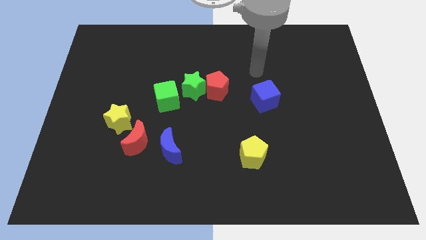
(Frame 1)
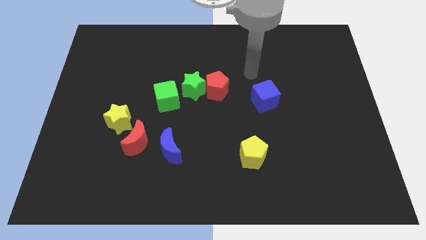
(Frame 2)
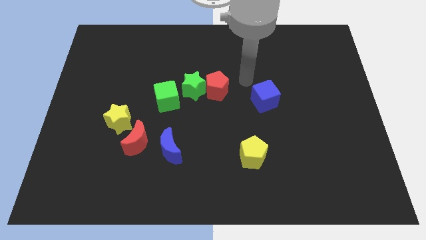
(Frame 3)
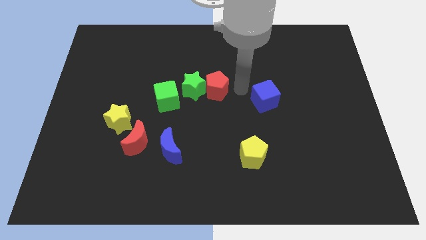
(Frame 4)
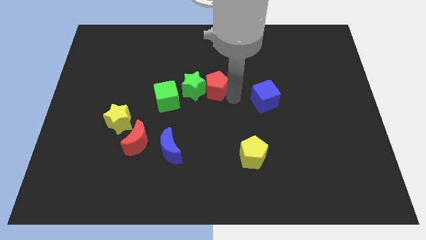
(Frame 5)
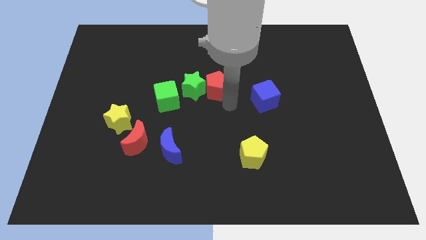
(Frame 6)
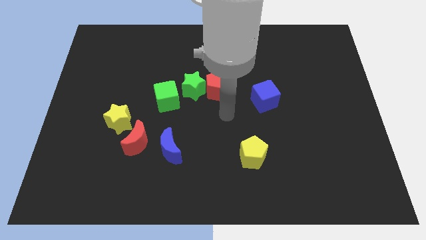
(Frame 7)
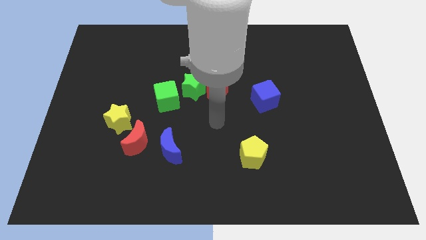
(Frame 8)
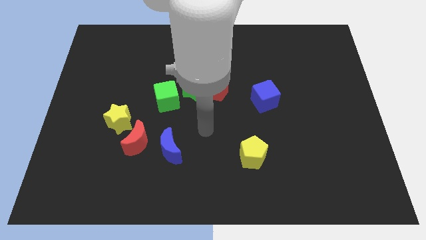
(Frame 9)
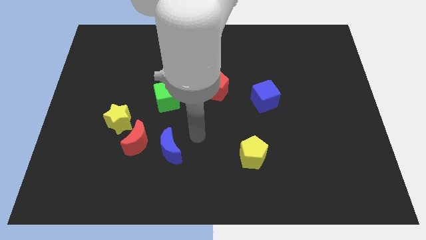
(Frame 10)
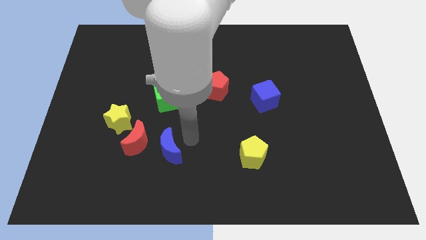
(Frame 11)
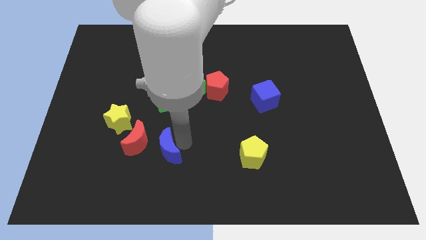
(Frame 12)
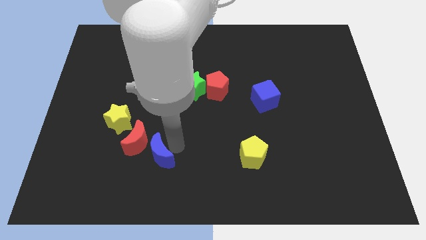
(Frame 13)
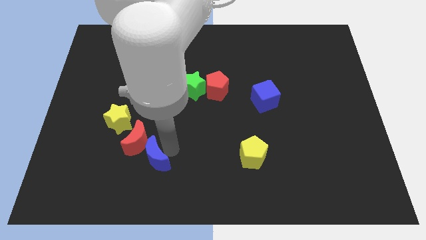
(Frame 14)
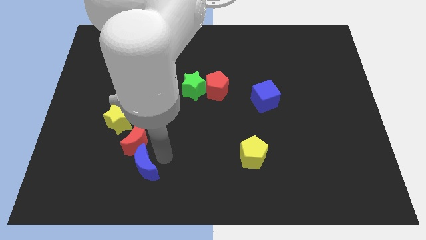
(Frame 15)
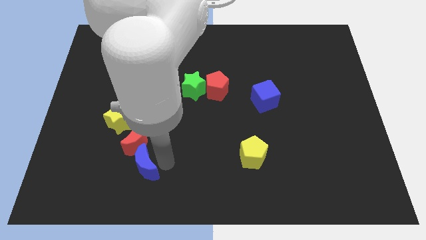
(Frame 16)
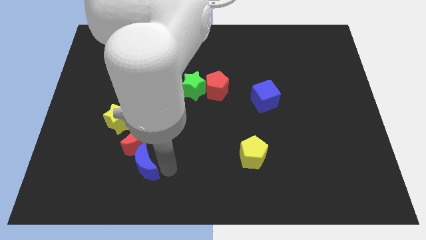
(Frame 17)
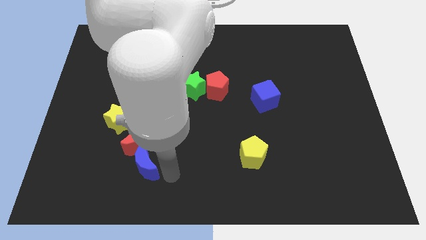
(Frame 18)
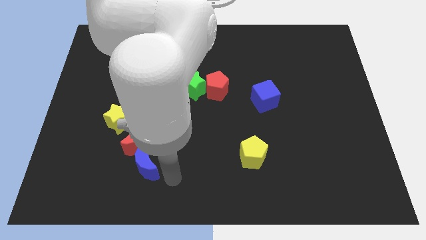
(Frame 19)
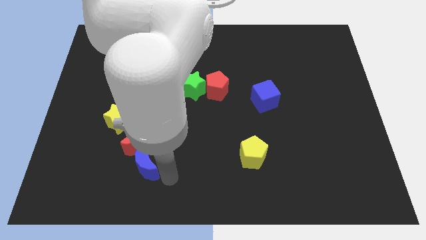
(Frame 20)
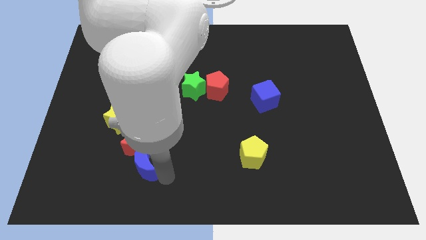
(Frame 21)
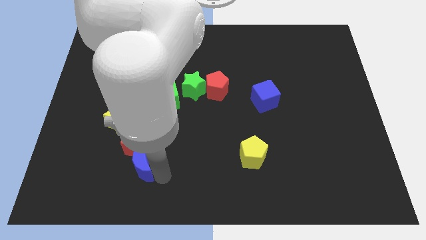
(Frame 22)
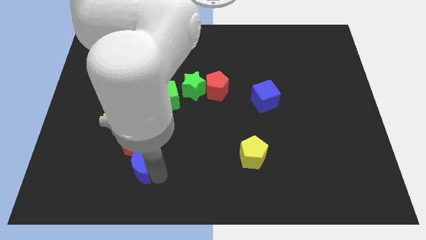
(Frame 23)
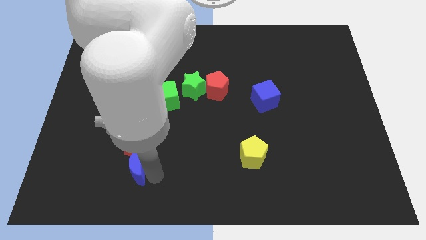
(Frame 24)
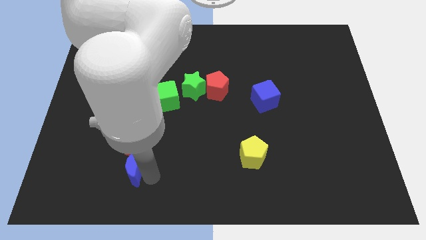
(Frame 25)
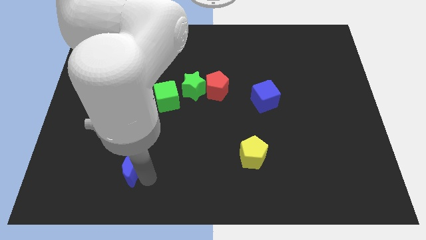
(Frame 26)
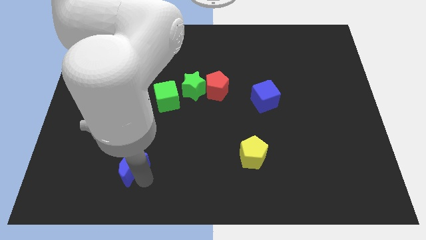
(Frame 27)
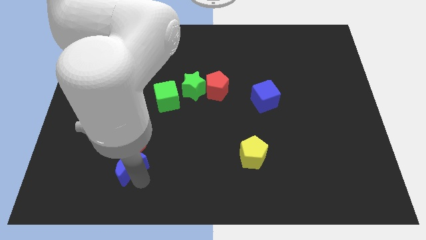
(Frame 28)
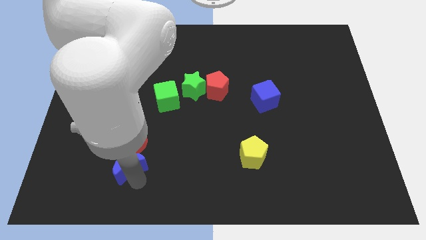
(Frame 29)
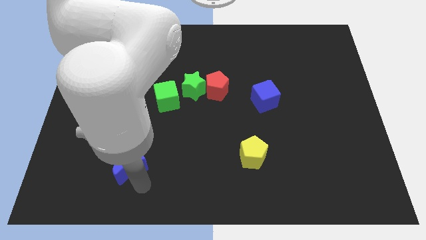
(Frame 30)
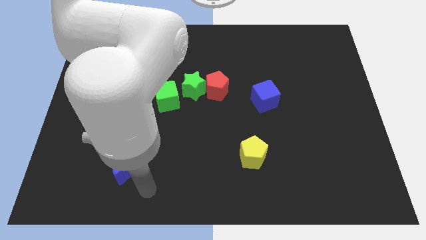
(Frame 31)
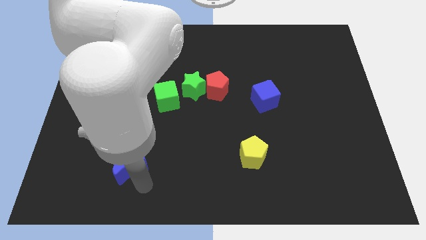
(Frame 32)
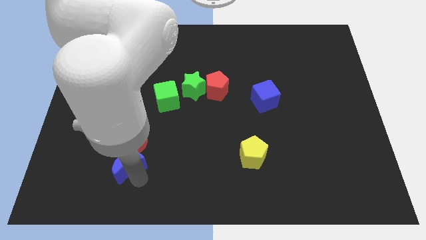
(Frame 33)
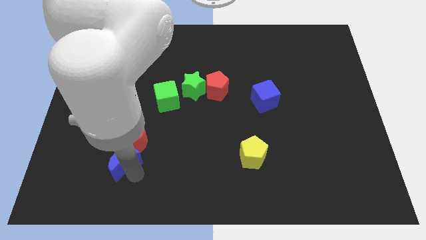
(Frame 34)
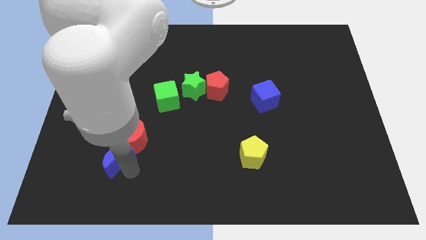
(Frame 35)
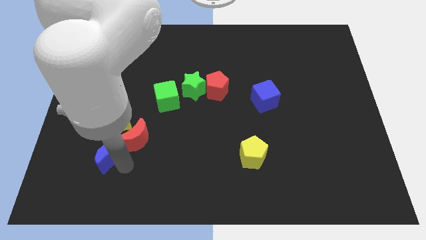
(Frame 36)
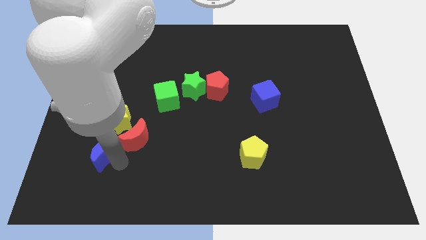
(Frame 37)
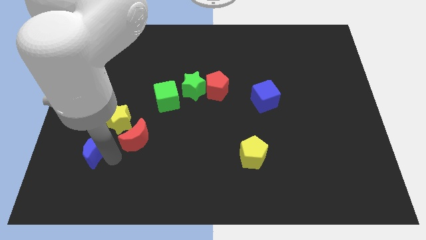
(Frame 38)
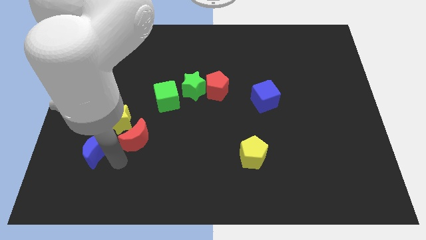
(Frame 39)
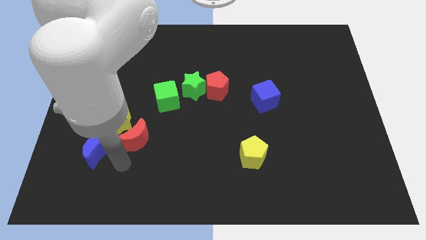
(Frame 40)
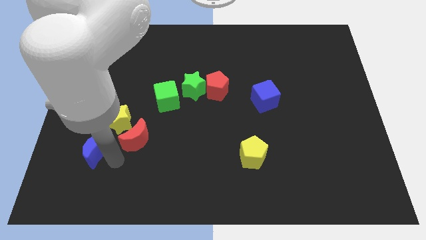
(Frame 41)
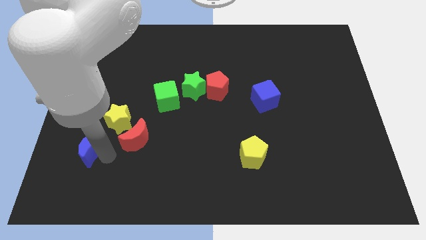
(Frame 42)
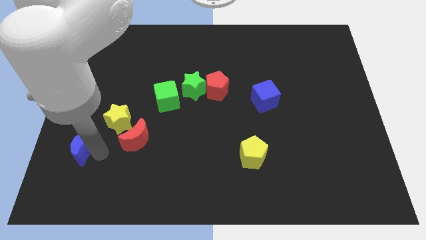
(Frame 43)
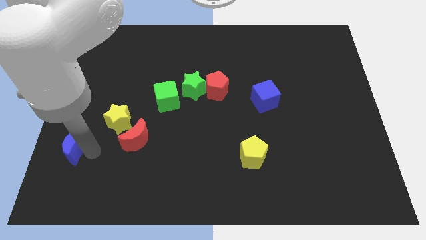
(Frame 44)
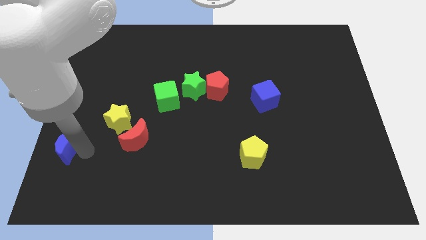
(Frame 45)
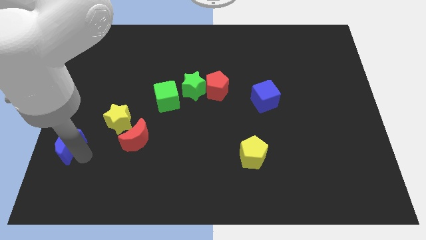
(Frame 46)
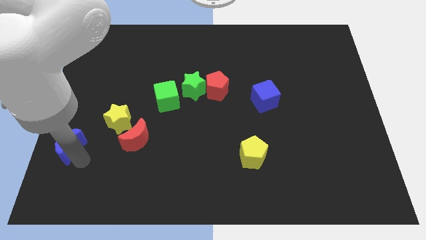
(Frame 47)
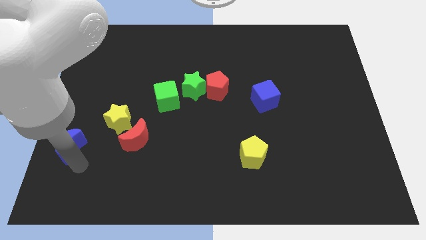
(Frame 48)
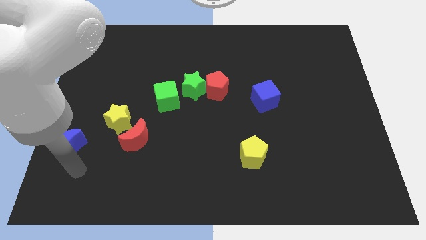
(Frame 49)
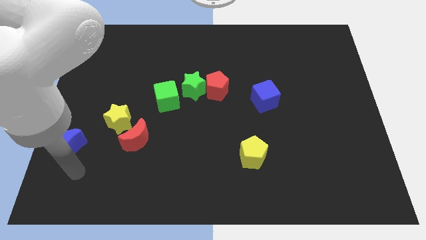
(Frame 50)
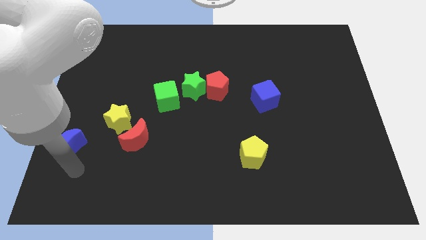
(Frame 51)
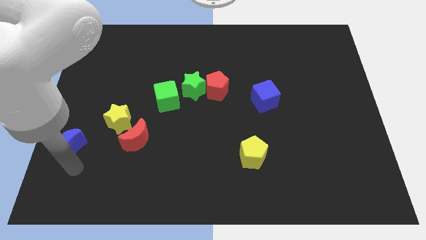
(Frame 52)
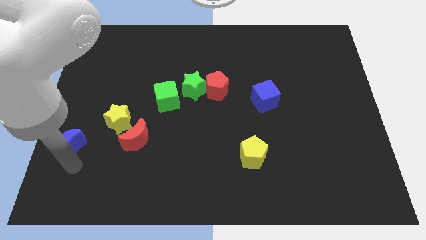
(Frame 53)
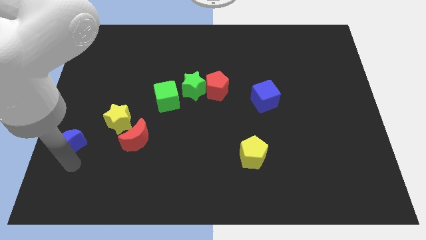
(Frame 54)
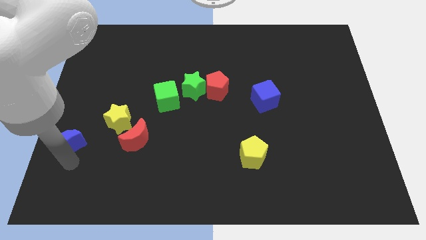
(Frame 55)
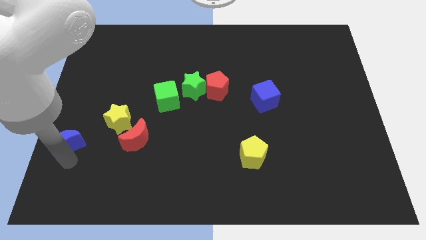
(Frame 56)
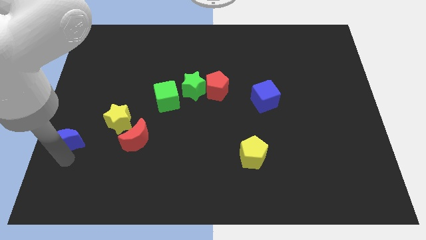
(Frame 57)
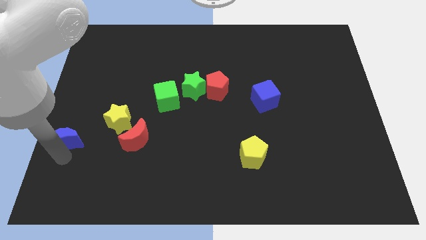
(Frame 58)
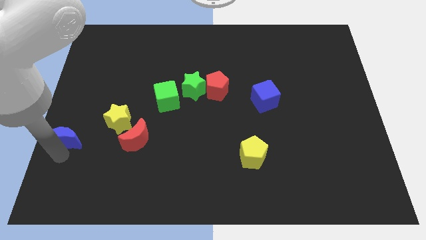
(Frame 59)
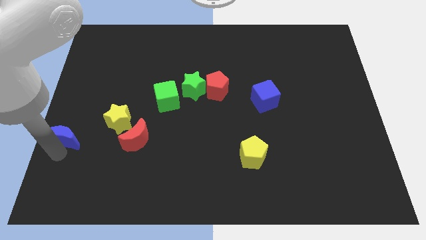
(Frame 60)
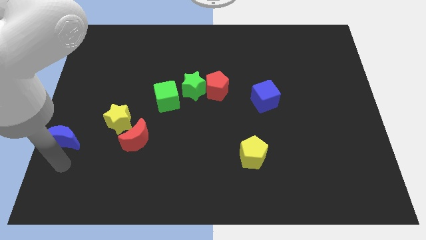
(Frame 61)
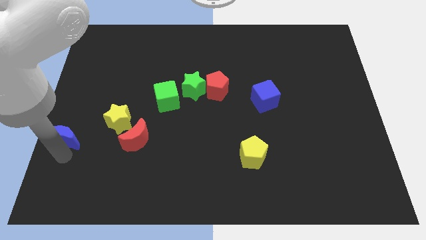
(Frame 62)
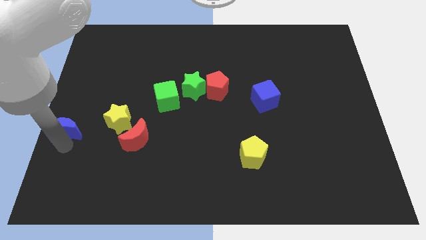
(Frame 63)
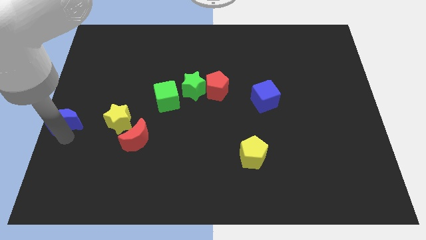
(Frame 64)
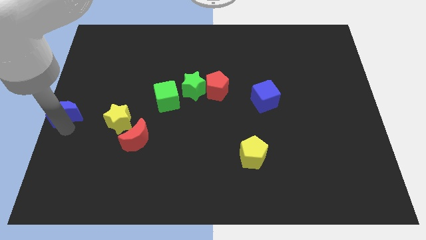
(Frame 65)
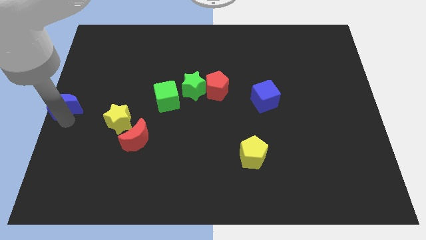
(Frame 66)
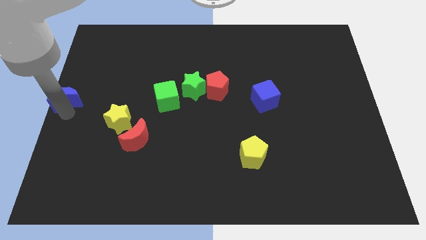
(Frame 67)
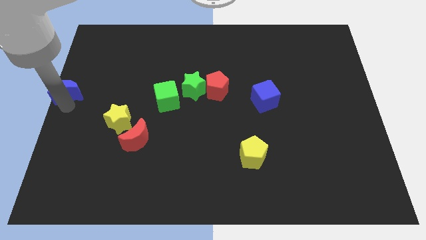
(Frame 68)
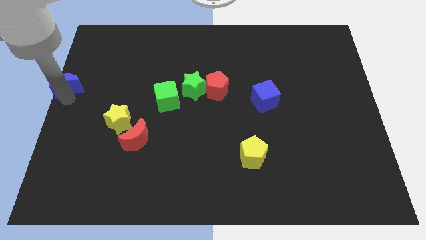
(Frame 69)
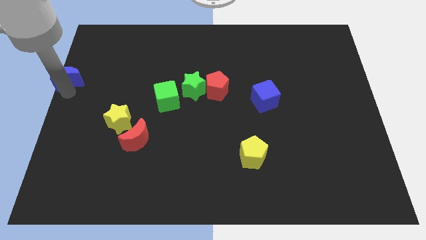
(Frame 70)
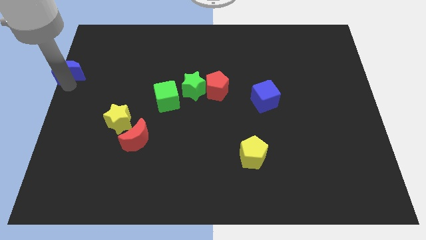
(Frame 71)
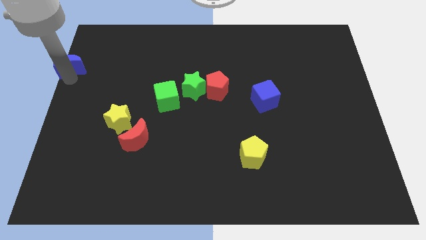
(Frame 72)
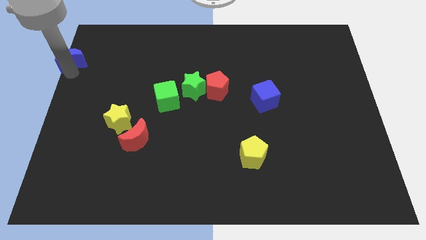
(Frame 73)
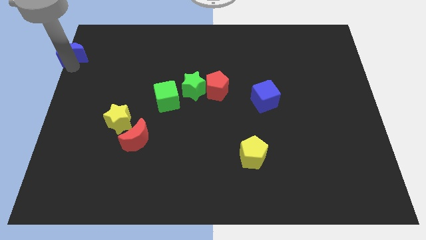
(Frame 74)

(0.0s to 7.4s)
put the blue moon to the upper left corner
